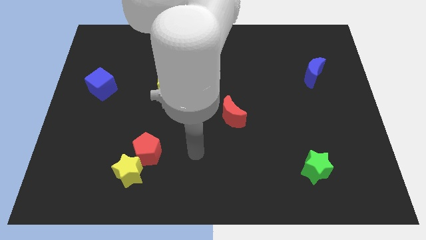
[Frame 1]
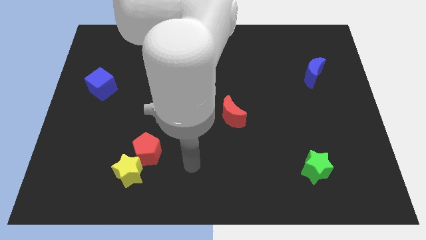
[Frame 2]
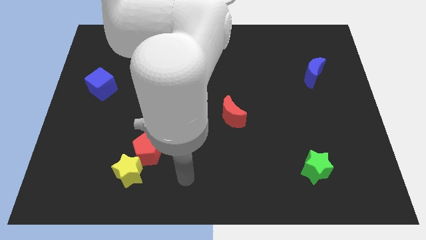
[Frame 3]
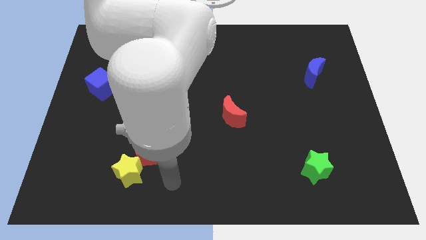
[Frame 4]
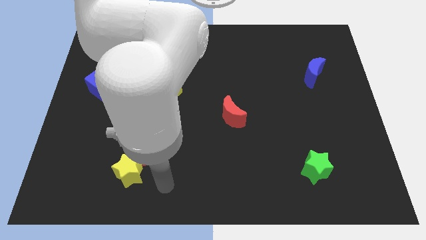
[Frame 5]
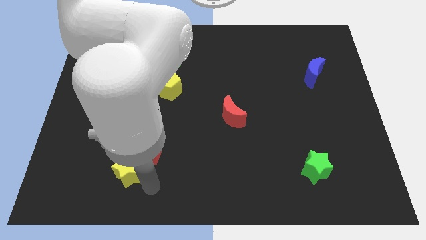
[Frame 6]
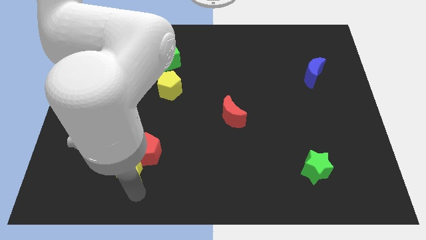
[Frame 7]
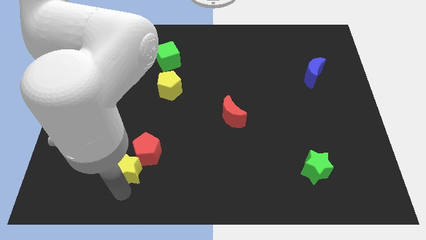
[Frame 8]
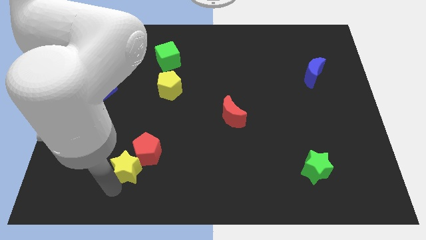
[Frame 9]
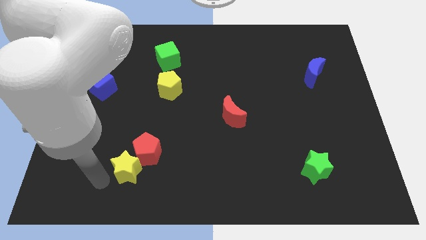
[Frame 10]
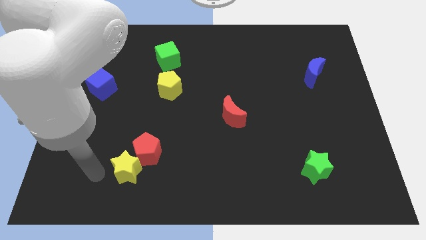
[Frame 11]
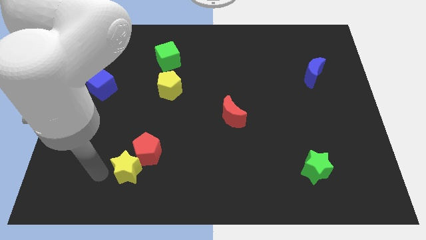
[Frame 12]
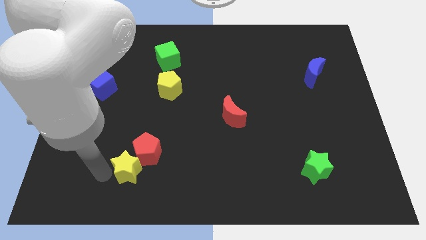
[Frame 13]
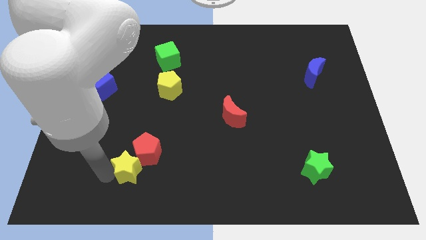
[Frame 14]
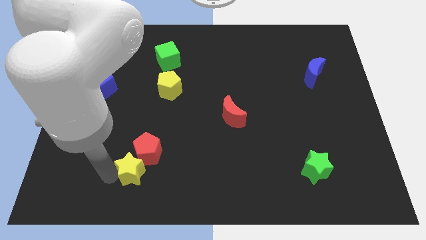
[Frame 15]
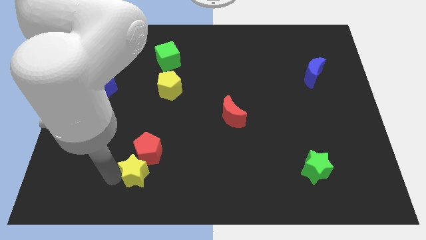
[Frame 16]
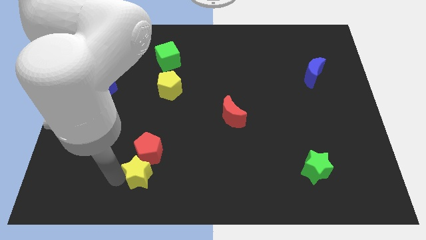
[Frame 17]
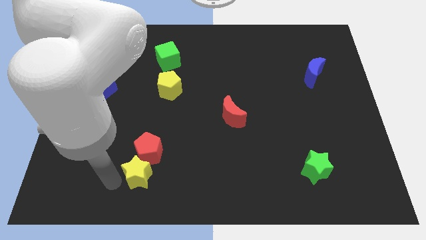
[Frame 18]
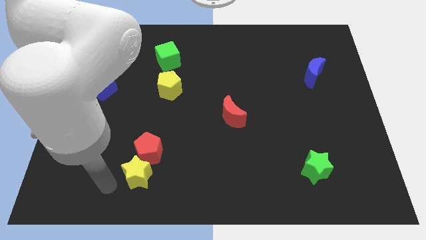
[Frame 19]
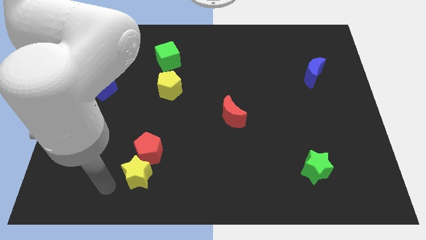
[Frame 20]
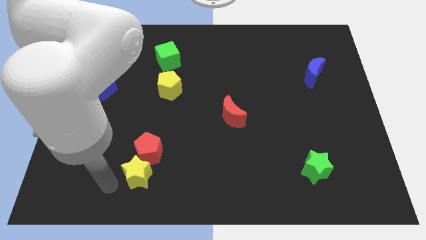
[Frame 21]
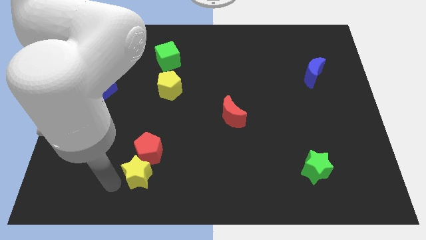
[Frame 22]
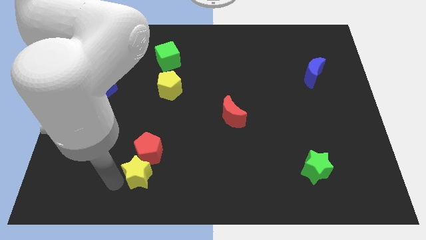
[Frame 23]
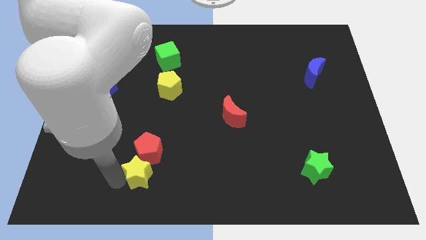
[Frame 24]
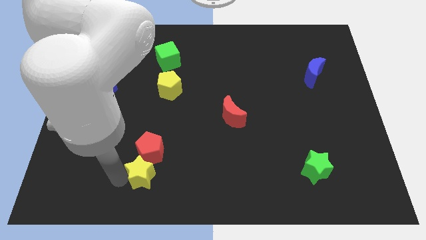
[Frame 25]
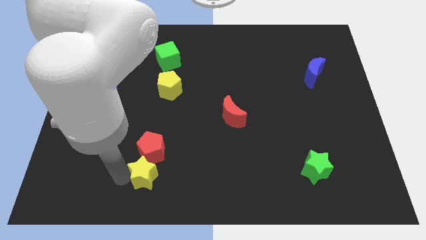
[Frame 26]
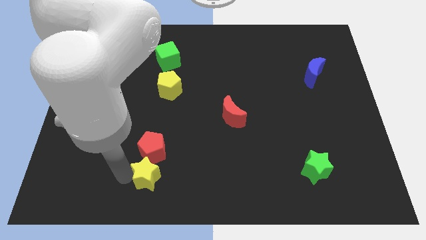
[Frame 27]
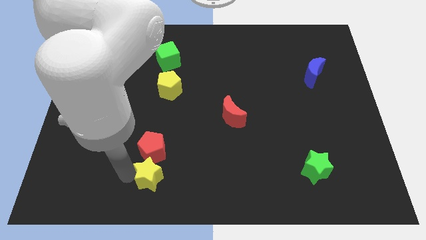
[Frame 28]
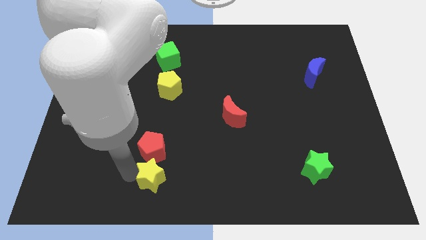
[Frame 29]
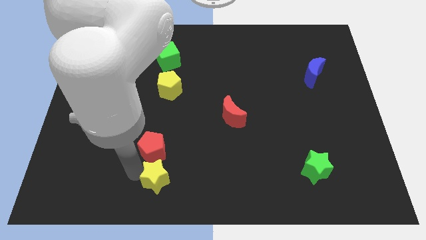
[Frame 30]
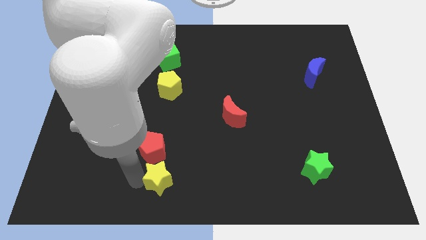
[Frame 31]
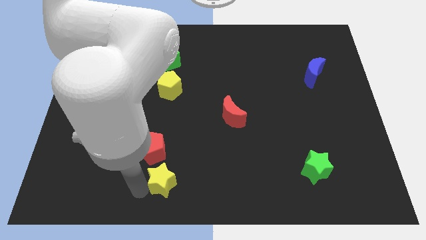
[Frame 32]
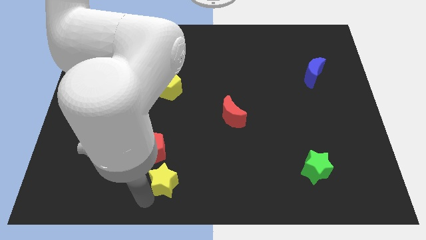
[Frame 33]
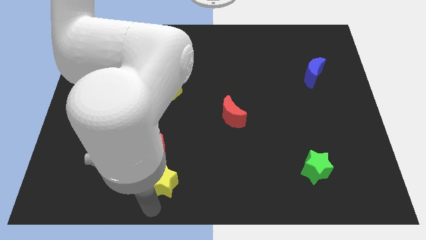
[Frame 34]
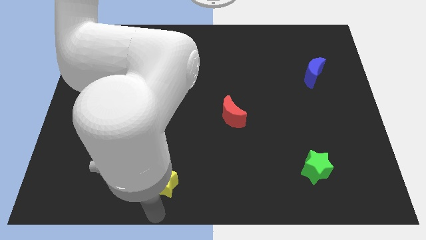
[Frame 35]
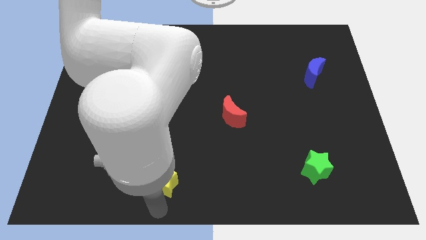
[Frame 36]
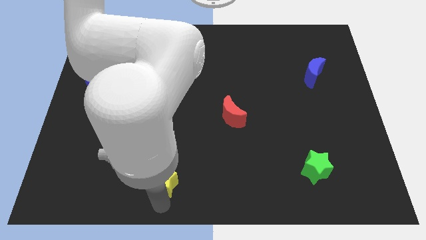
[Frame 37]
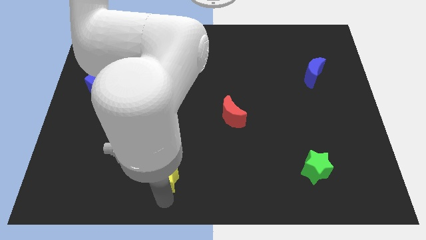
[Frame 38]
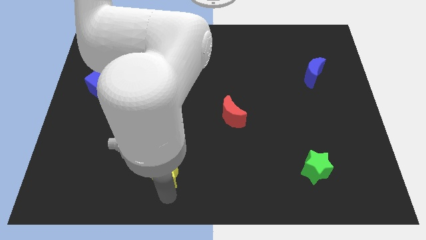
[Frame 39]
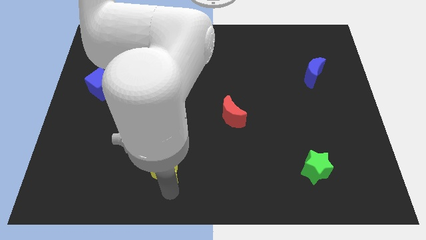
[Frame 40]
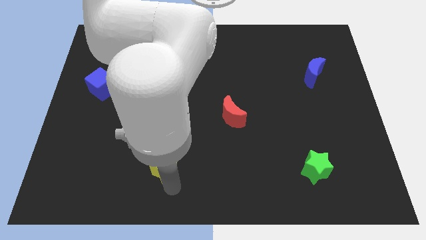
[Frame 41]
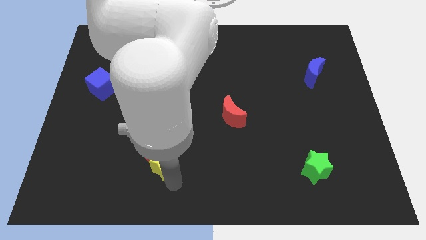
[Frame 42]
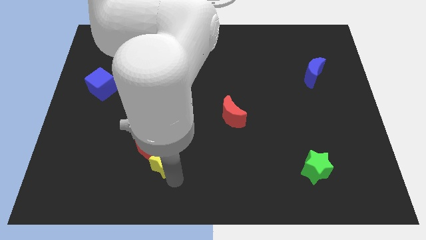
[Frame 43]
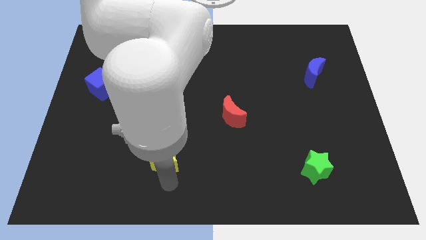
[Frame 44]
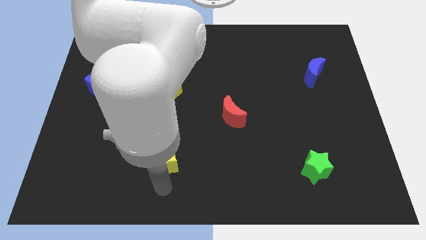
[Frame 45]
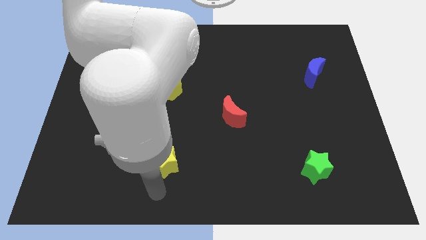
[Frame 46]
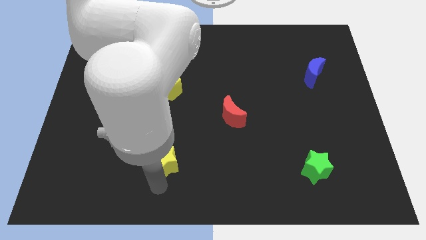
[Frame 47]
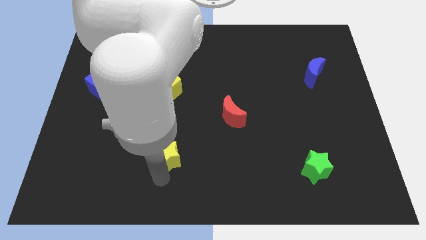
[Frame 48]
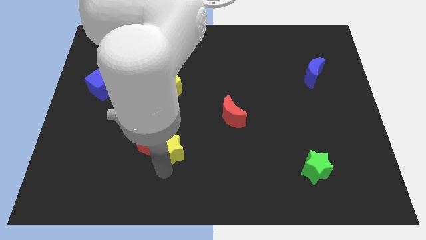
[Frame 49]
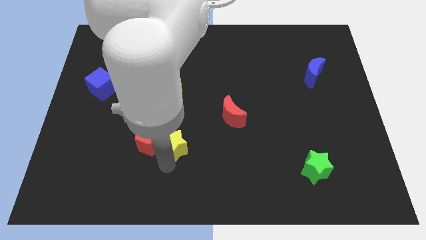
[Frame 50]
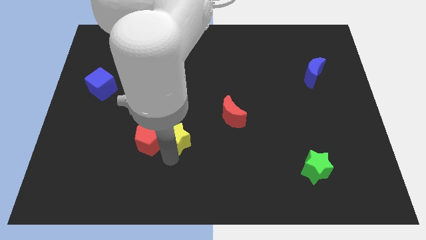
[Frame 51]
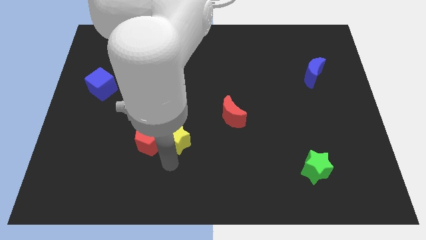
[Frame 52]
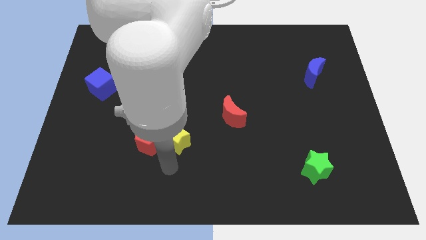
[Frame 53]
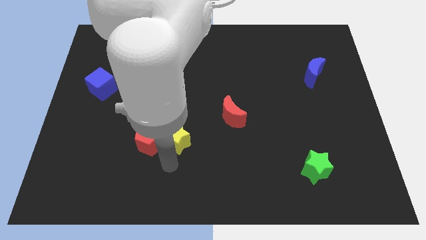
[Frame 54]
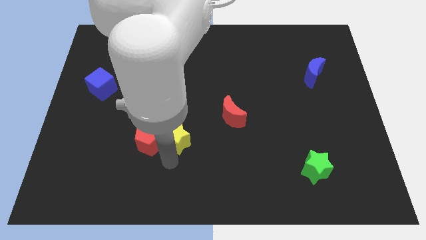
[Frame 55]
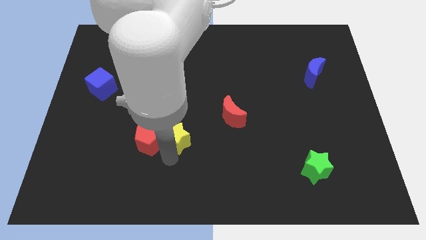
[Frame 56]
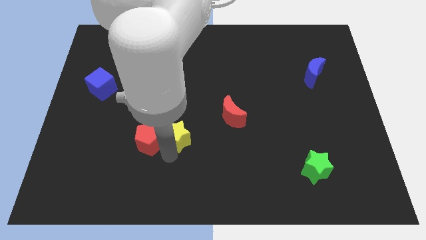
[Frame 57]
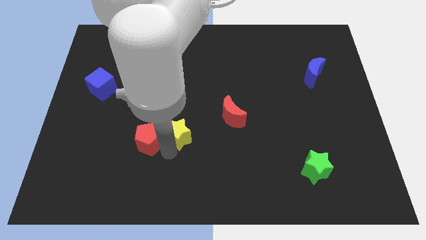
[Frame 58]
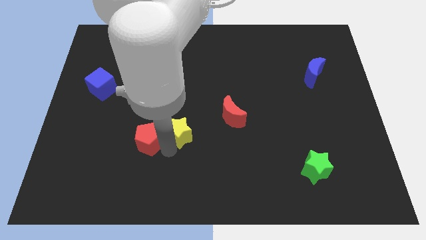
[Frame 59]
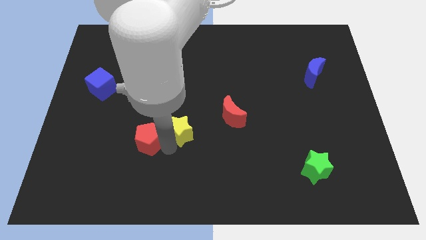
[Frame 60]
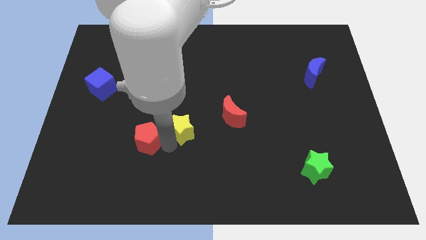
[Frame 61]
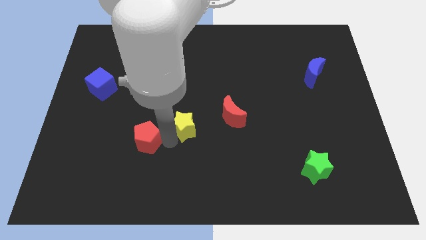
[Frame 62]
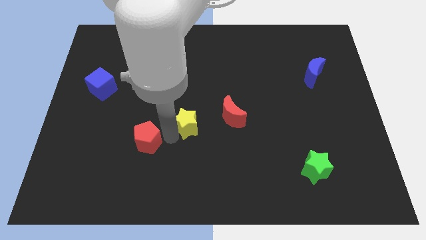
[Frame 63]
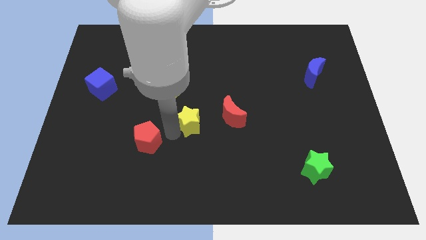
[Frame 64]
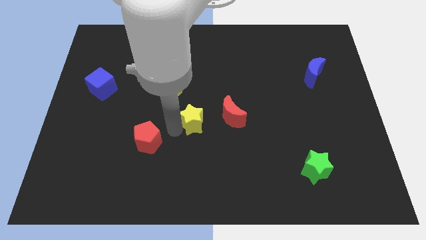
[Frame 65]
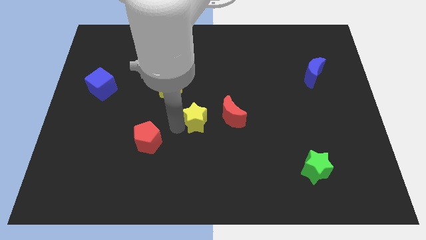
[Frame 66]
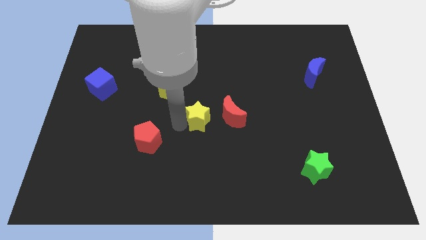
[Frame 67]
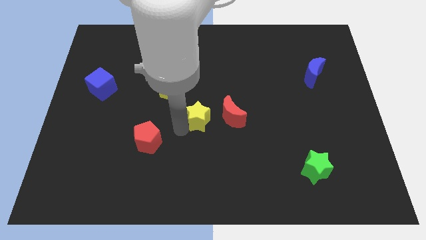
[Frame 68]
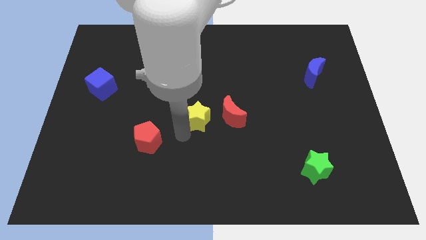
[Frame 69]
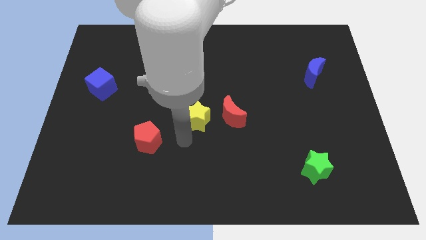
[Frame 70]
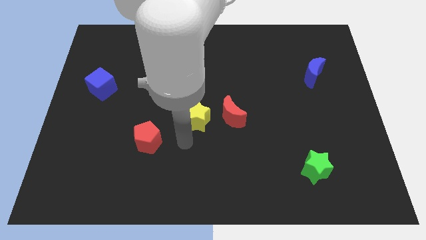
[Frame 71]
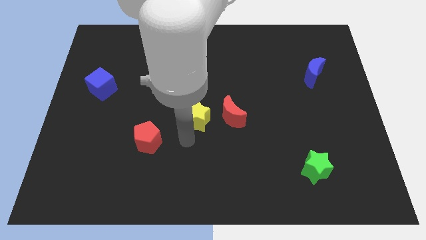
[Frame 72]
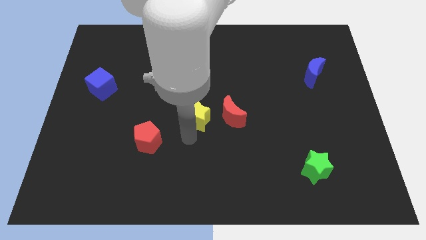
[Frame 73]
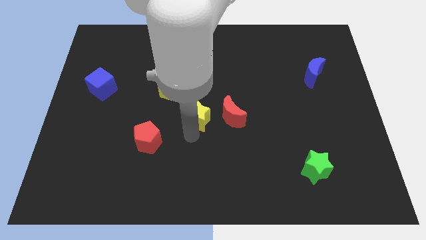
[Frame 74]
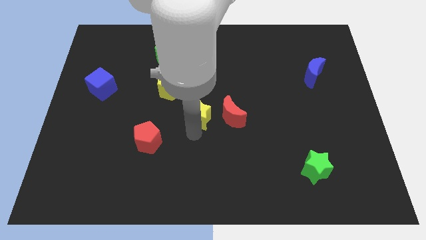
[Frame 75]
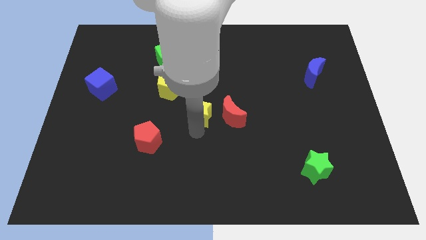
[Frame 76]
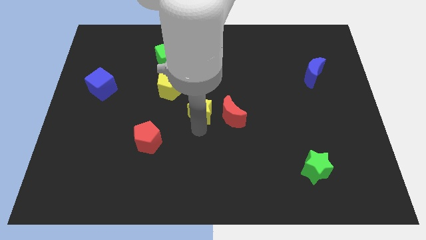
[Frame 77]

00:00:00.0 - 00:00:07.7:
put the yellow star diagonally up and to the left of the red moon
